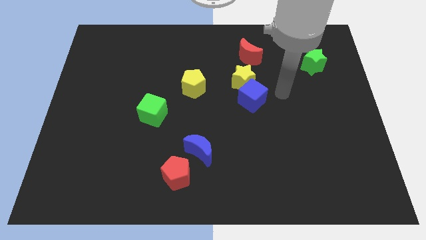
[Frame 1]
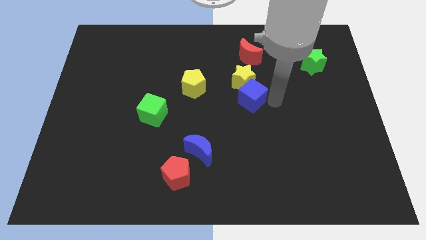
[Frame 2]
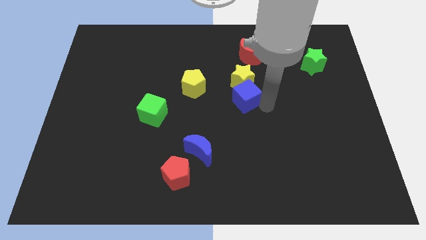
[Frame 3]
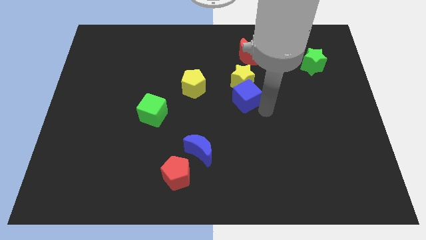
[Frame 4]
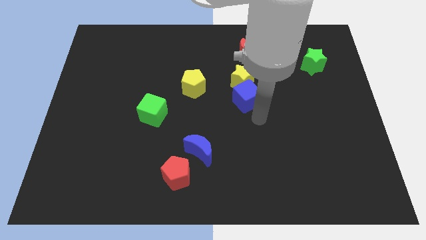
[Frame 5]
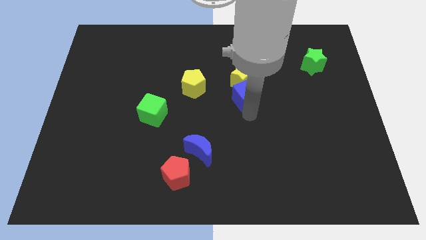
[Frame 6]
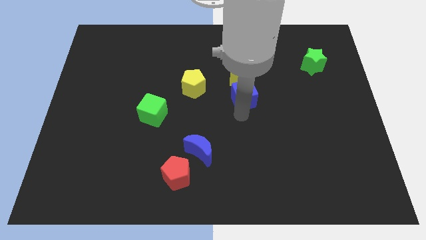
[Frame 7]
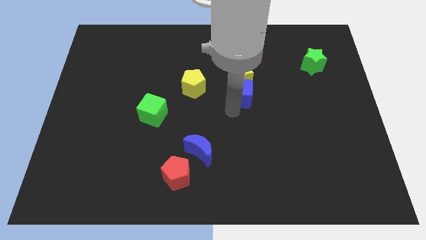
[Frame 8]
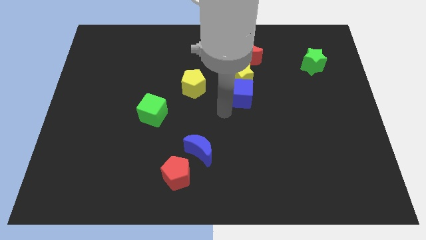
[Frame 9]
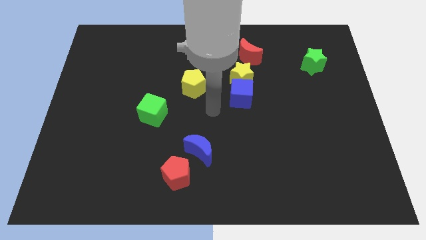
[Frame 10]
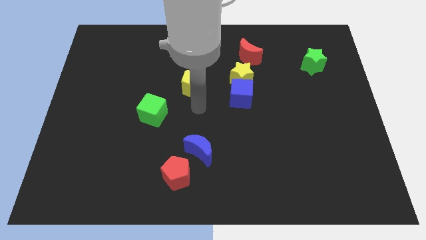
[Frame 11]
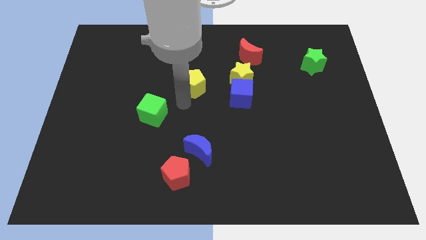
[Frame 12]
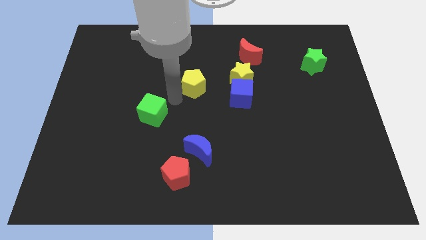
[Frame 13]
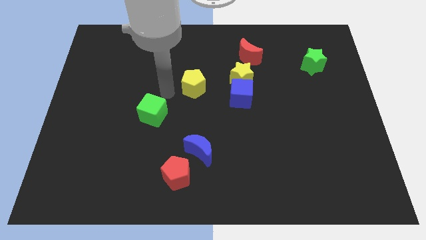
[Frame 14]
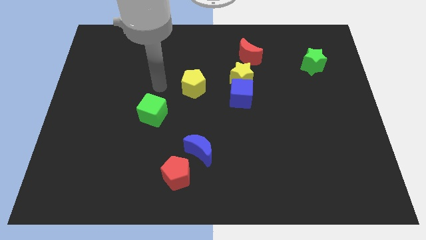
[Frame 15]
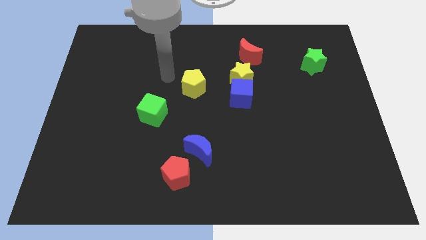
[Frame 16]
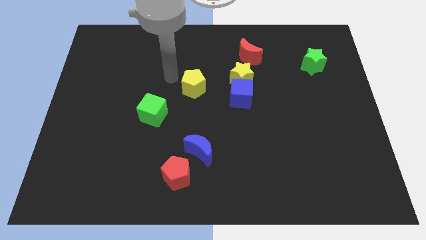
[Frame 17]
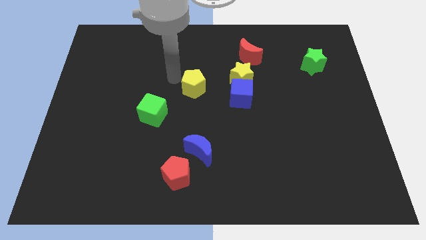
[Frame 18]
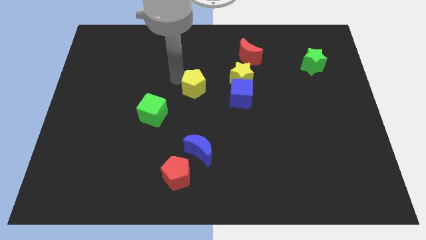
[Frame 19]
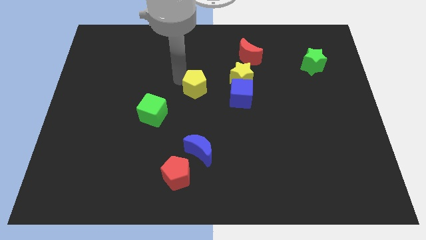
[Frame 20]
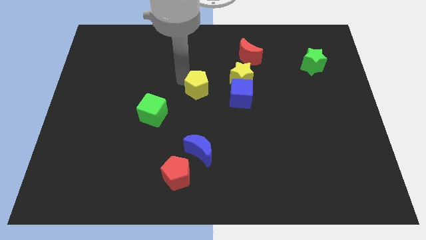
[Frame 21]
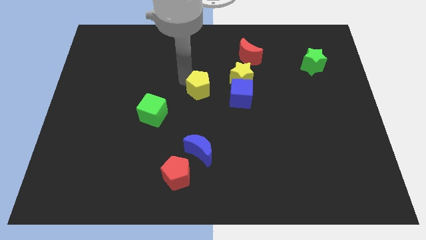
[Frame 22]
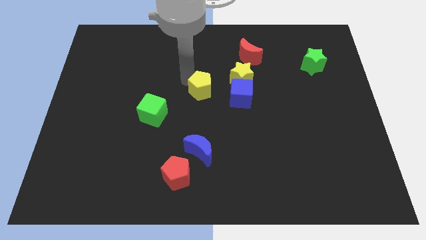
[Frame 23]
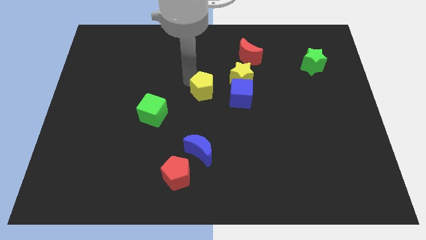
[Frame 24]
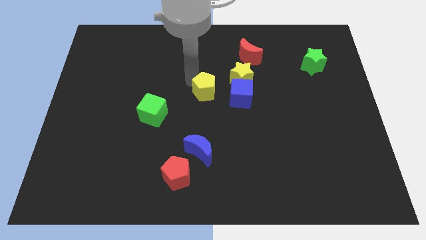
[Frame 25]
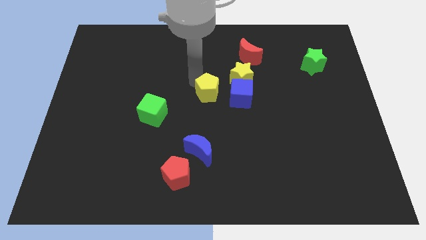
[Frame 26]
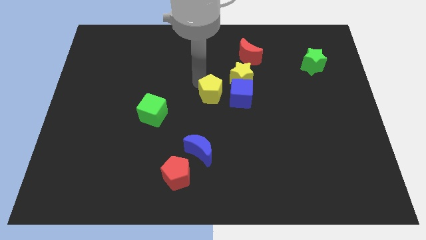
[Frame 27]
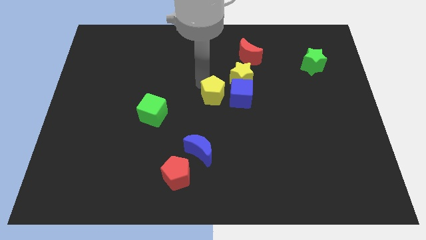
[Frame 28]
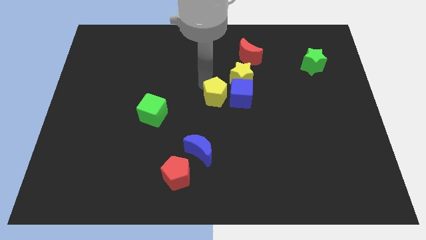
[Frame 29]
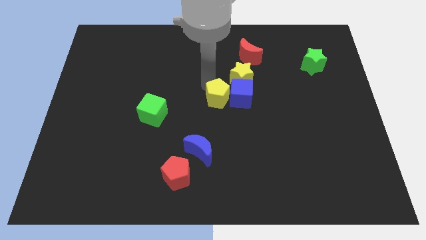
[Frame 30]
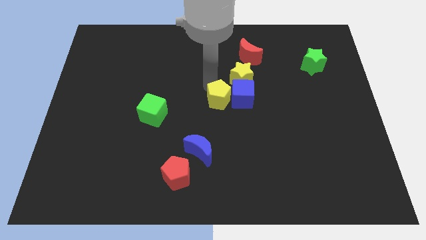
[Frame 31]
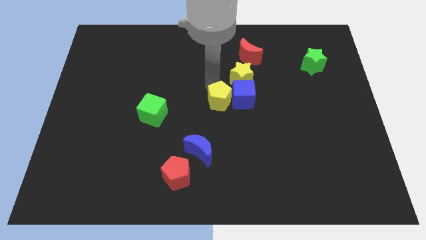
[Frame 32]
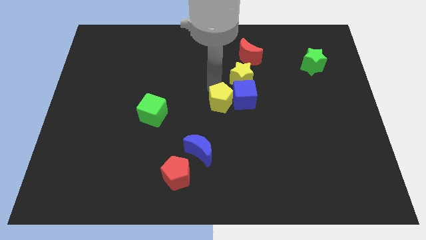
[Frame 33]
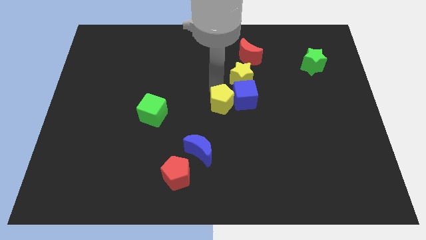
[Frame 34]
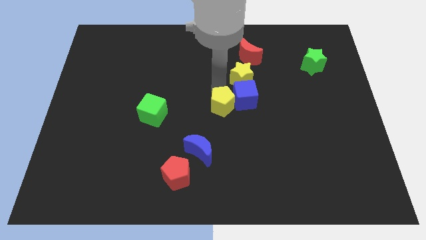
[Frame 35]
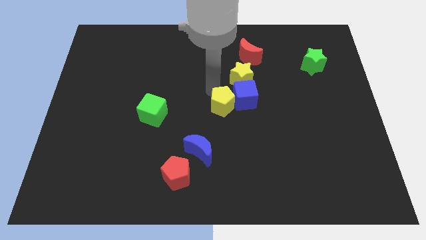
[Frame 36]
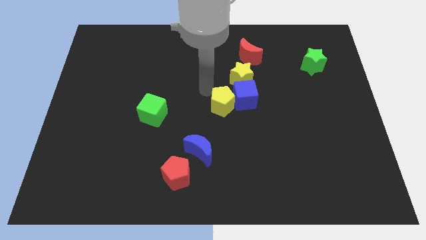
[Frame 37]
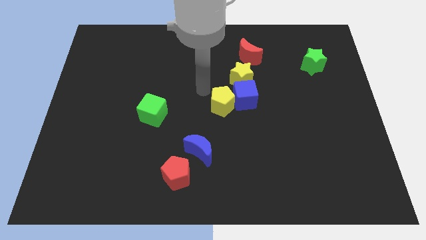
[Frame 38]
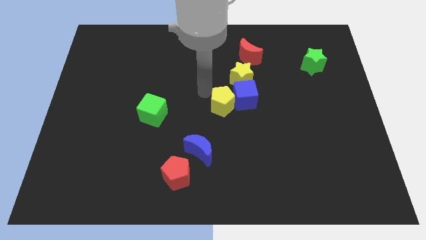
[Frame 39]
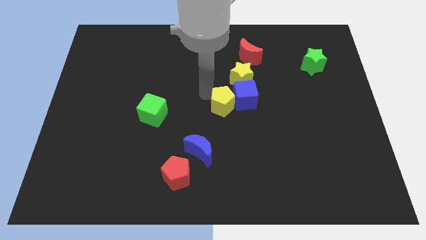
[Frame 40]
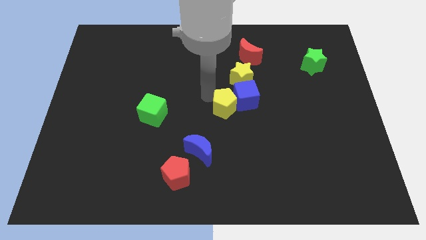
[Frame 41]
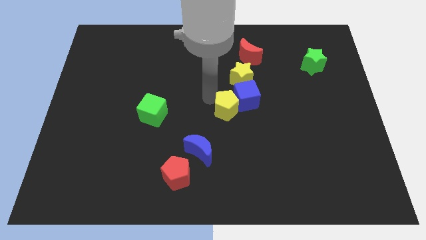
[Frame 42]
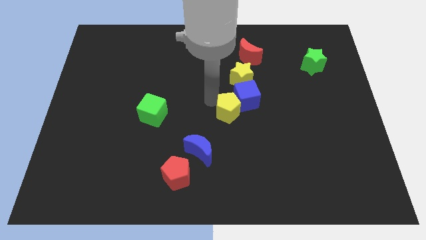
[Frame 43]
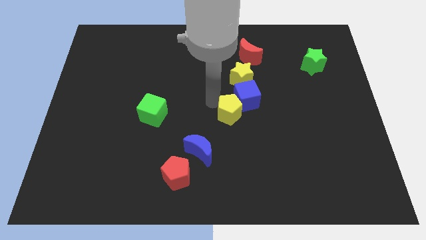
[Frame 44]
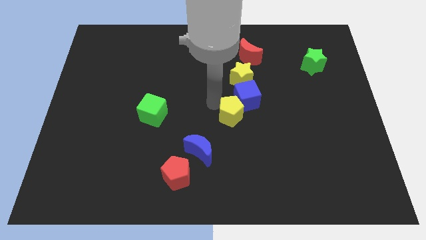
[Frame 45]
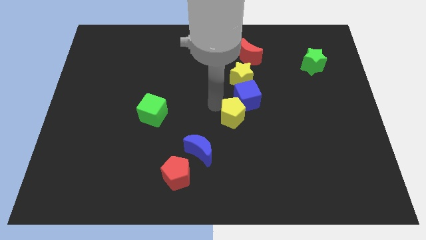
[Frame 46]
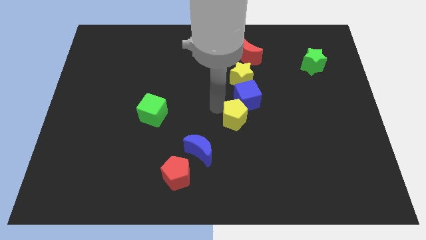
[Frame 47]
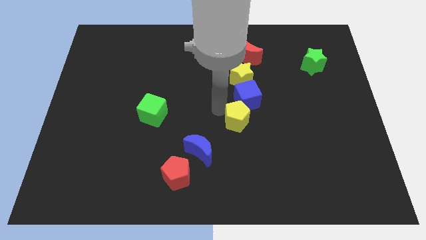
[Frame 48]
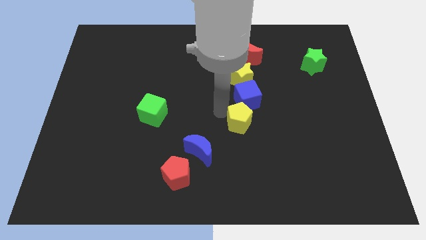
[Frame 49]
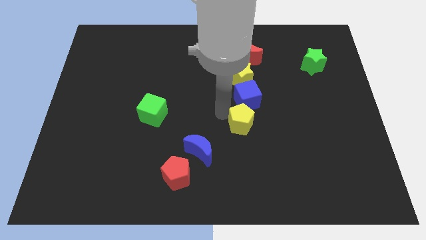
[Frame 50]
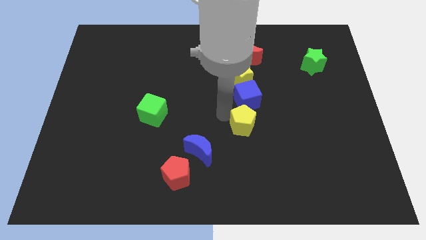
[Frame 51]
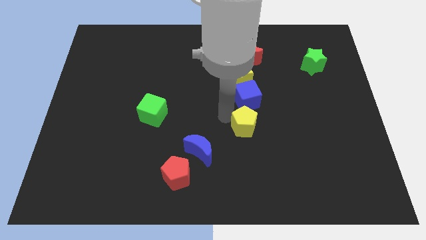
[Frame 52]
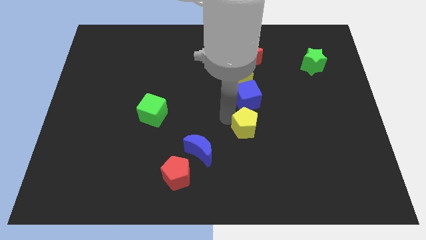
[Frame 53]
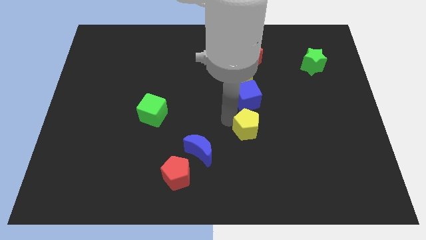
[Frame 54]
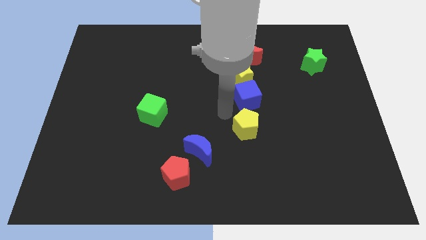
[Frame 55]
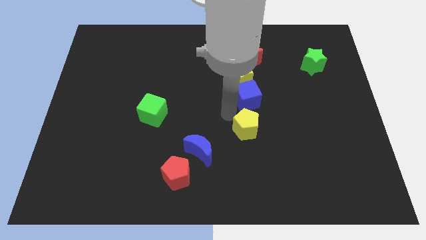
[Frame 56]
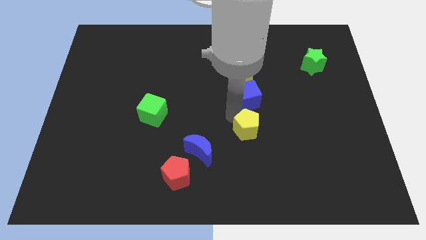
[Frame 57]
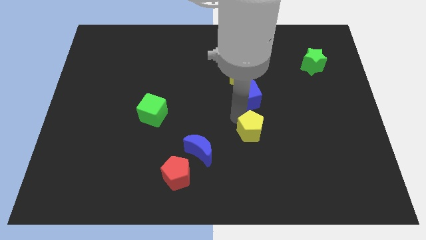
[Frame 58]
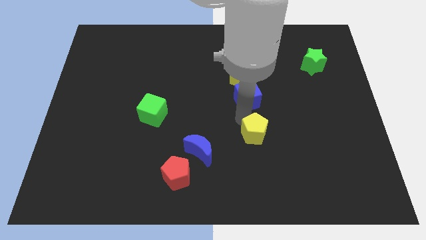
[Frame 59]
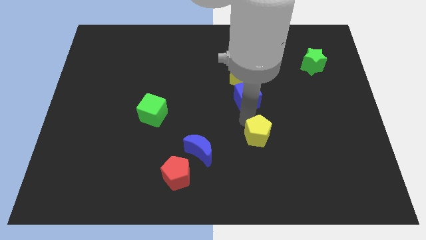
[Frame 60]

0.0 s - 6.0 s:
push the yellow pentagon downwards and then to the right

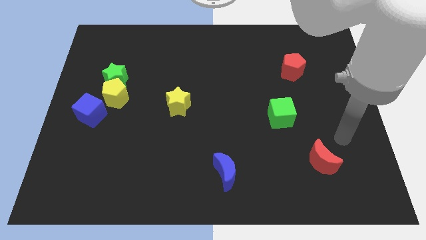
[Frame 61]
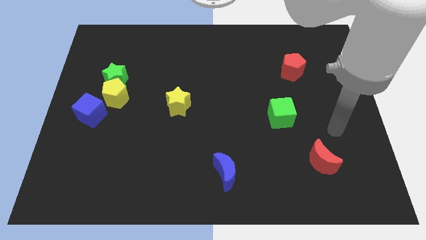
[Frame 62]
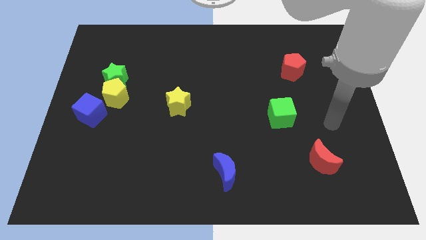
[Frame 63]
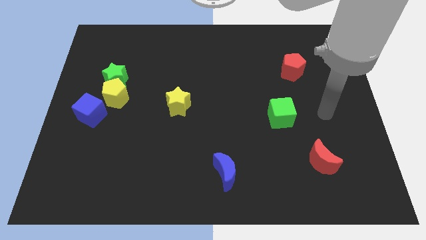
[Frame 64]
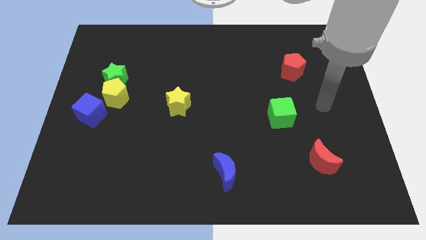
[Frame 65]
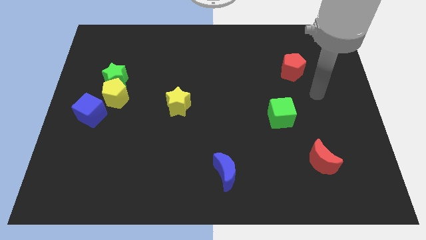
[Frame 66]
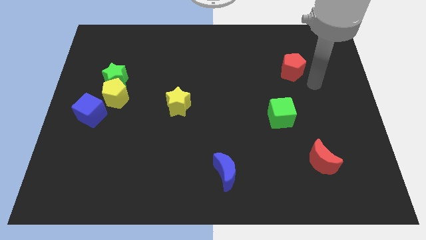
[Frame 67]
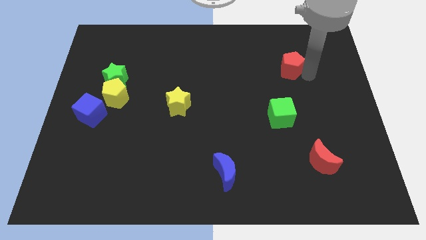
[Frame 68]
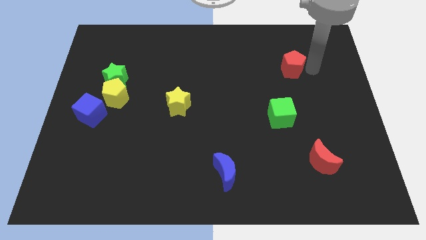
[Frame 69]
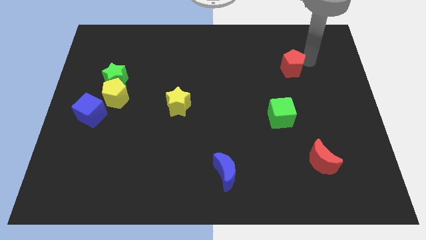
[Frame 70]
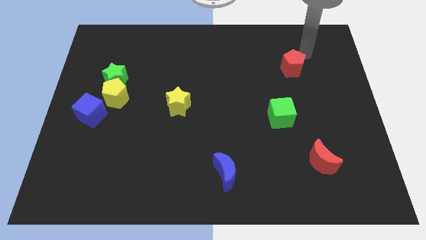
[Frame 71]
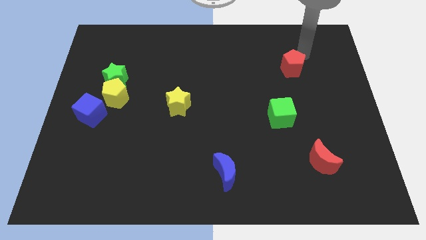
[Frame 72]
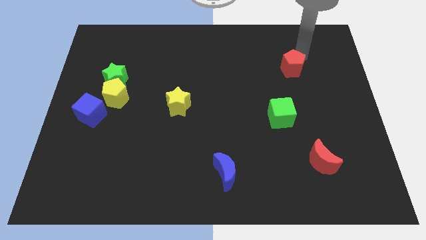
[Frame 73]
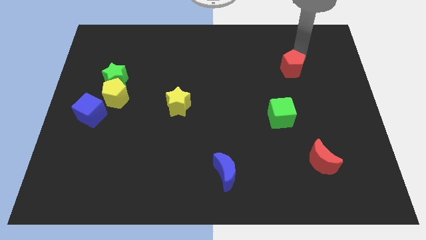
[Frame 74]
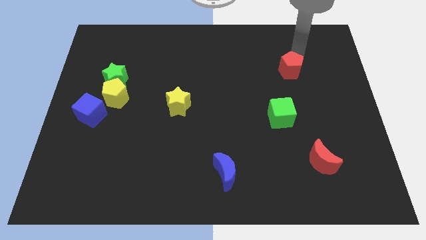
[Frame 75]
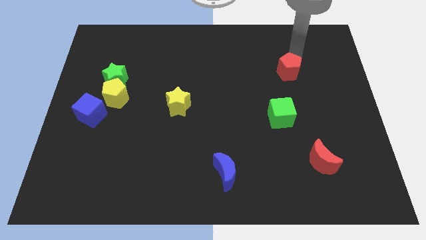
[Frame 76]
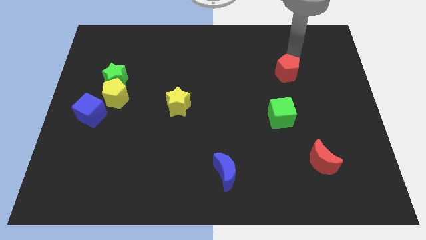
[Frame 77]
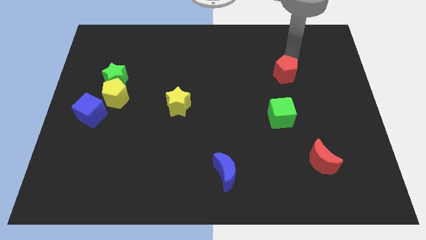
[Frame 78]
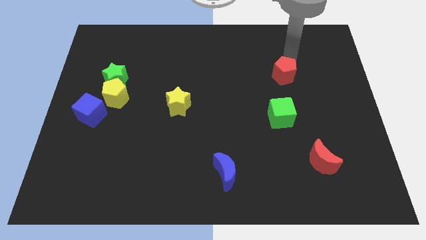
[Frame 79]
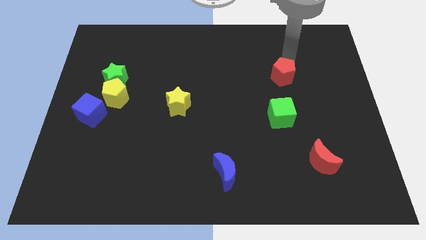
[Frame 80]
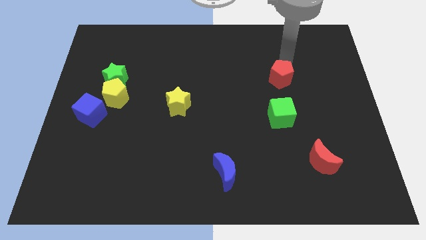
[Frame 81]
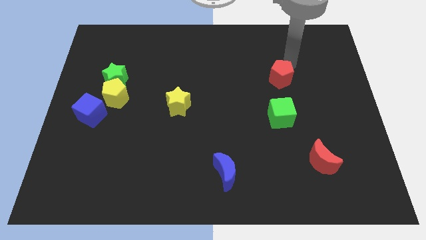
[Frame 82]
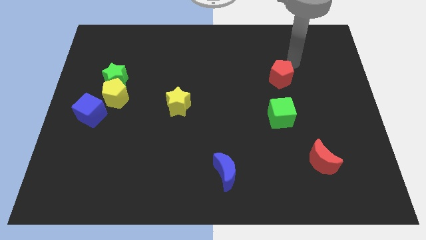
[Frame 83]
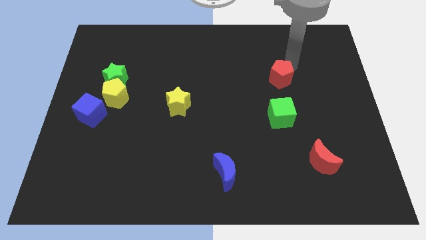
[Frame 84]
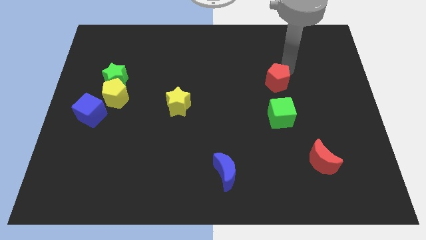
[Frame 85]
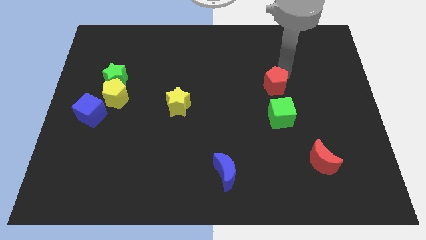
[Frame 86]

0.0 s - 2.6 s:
push the red pentagon a bit downwards and to the left diagonally
